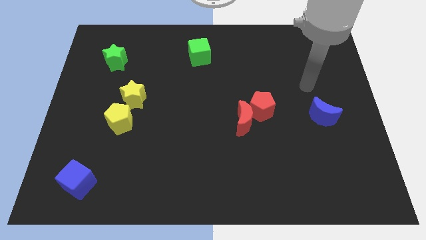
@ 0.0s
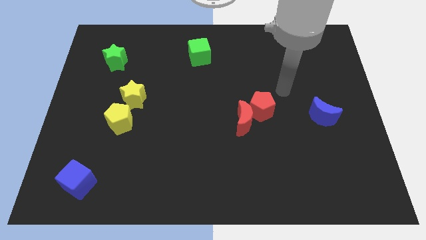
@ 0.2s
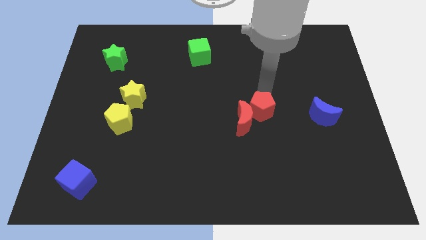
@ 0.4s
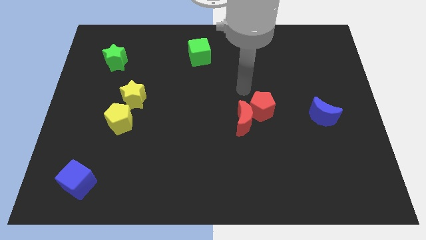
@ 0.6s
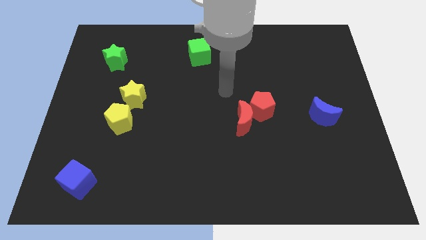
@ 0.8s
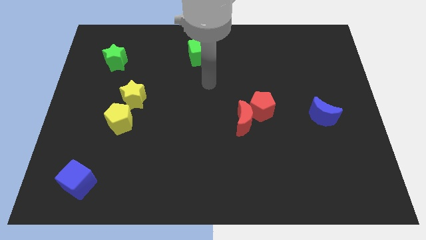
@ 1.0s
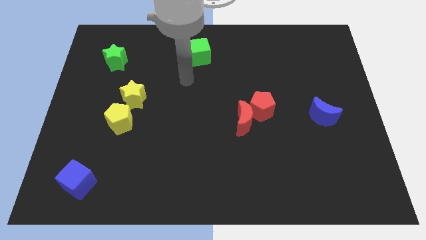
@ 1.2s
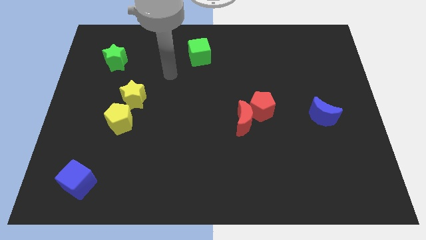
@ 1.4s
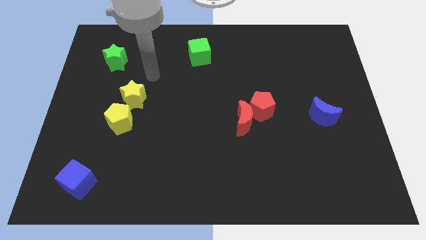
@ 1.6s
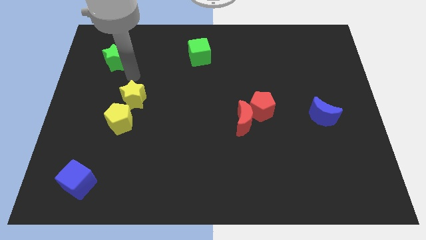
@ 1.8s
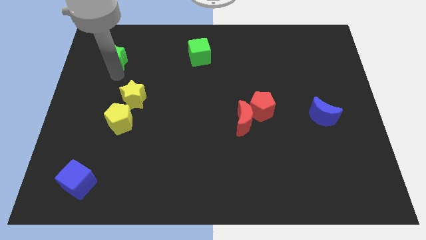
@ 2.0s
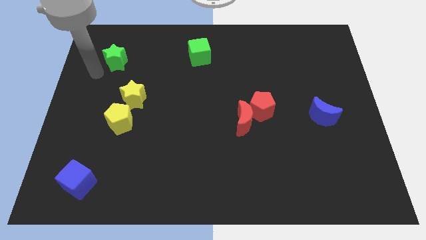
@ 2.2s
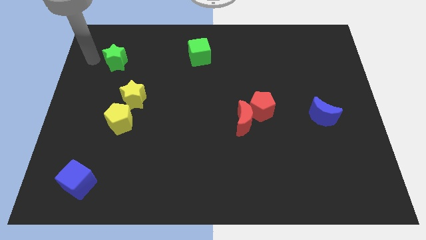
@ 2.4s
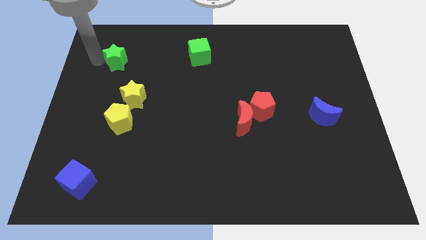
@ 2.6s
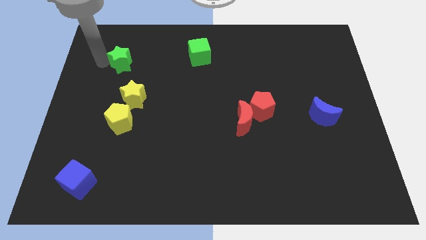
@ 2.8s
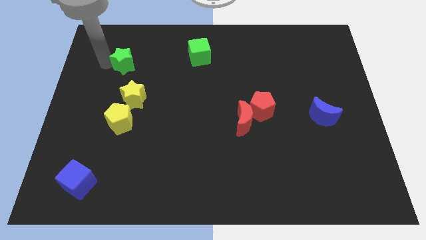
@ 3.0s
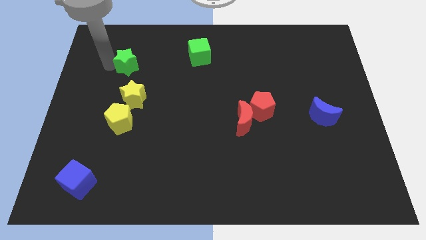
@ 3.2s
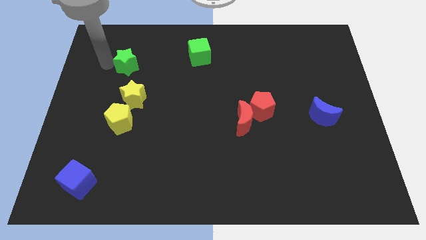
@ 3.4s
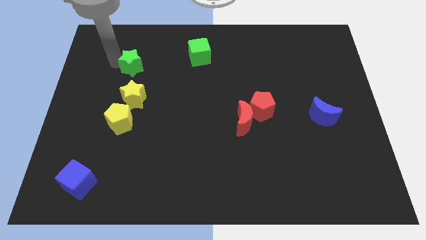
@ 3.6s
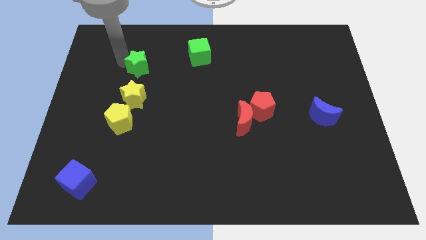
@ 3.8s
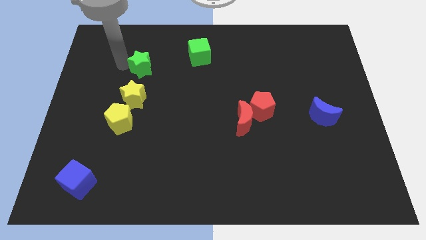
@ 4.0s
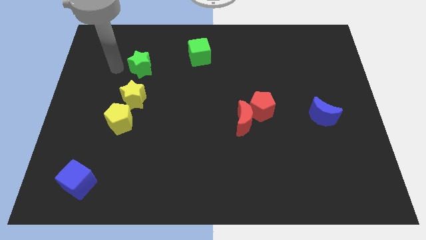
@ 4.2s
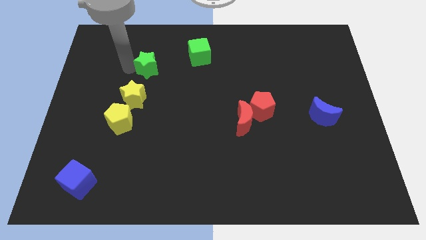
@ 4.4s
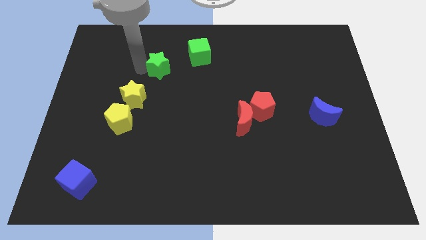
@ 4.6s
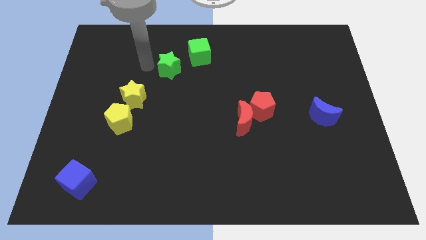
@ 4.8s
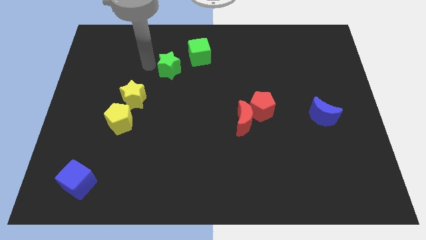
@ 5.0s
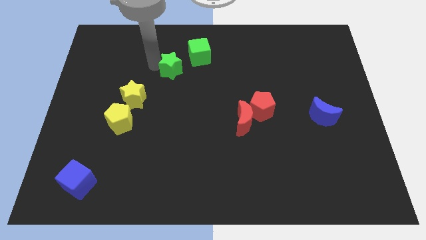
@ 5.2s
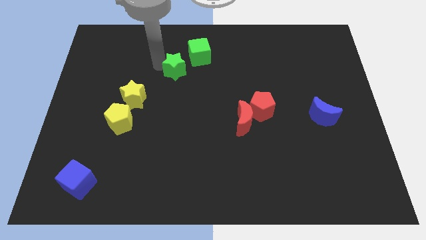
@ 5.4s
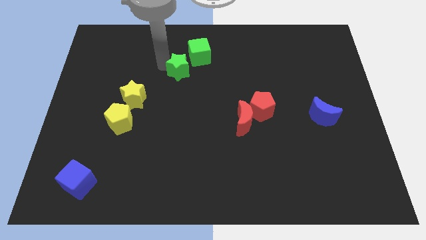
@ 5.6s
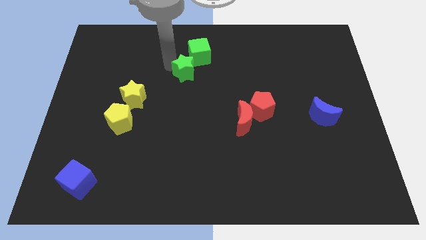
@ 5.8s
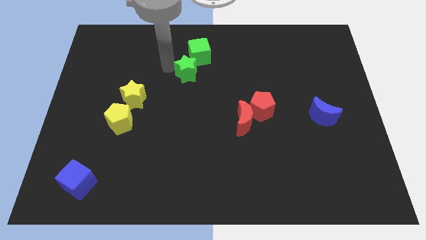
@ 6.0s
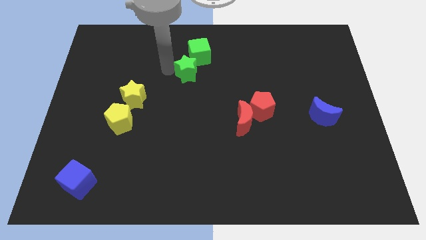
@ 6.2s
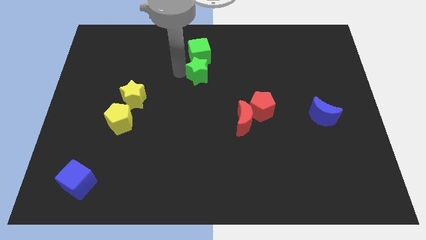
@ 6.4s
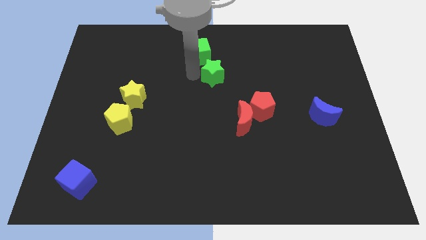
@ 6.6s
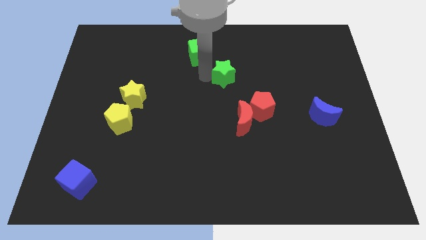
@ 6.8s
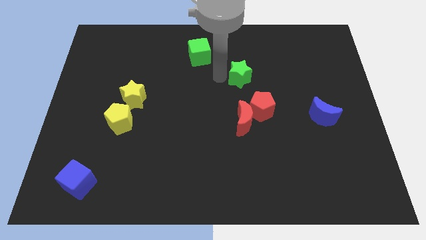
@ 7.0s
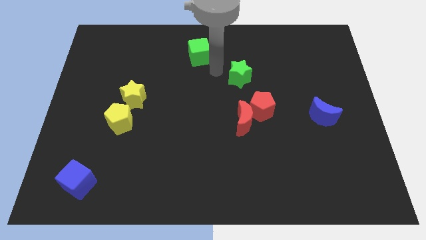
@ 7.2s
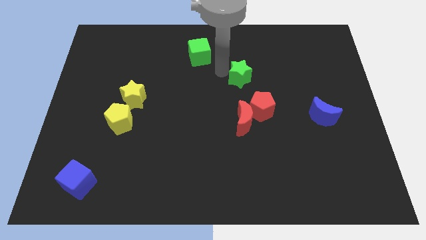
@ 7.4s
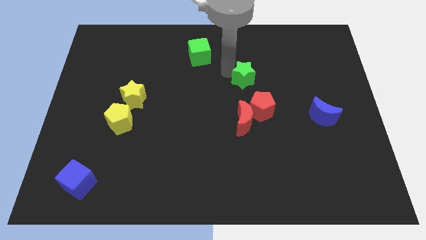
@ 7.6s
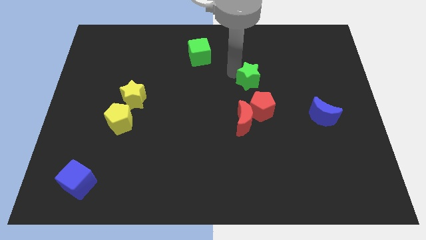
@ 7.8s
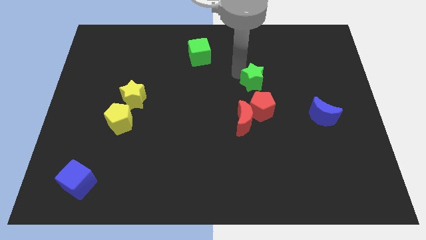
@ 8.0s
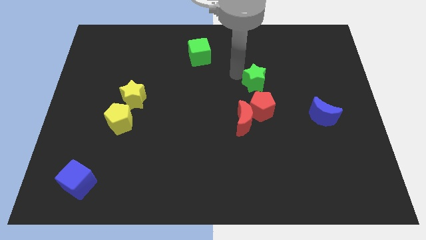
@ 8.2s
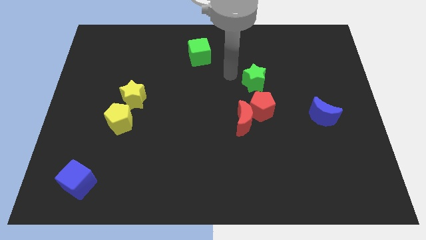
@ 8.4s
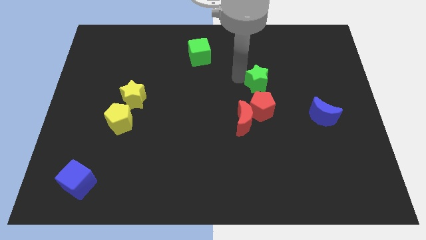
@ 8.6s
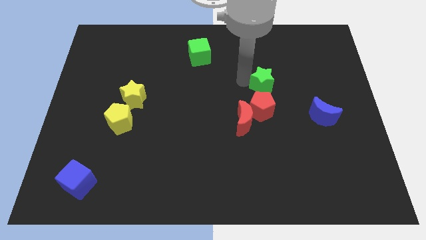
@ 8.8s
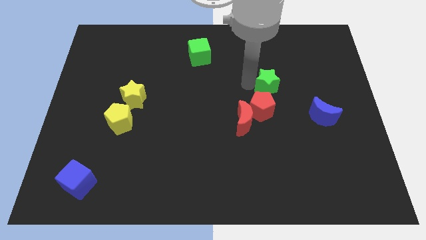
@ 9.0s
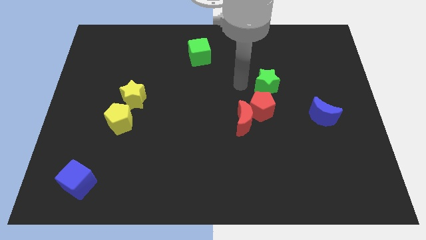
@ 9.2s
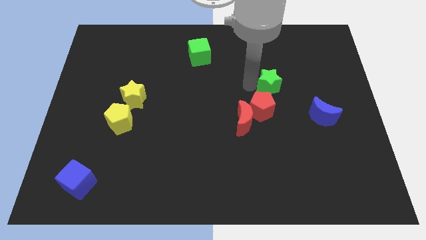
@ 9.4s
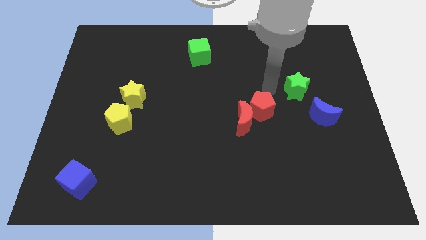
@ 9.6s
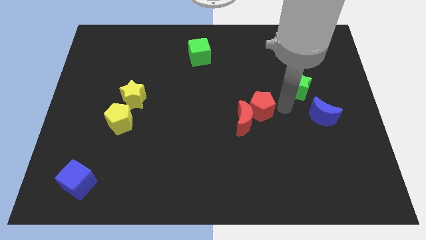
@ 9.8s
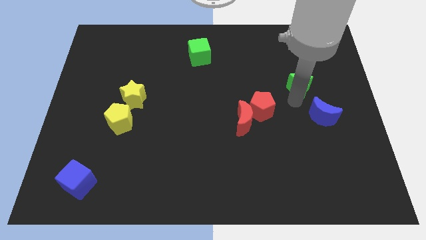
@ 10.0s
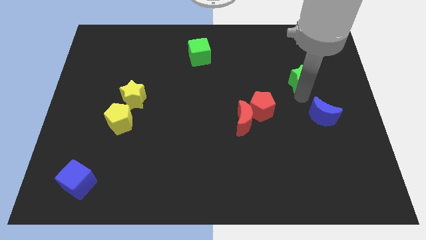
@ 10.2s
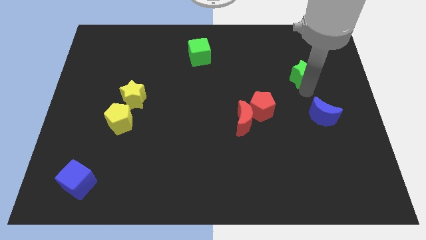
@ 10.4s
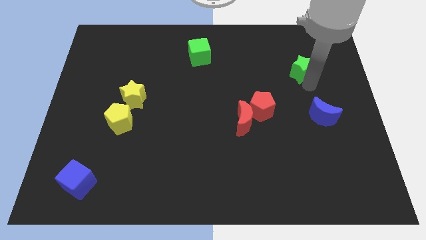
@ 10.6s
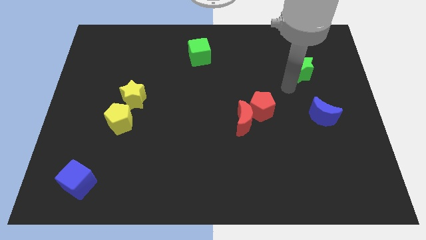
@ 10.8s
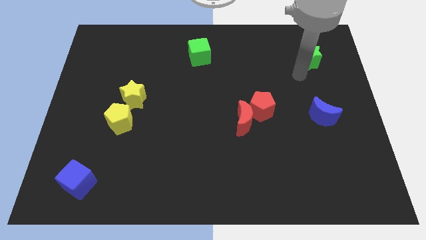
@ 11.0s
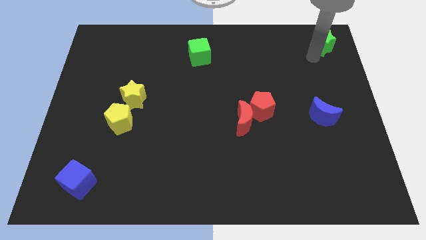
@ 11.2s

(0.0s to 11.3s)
slide the green star to the upper right corner

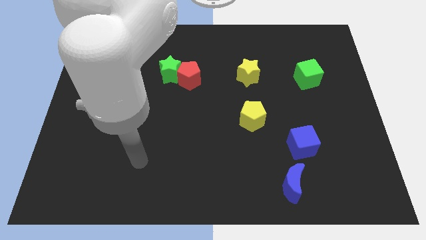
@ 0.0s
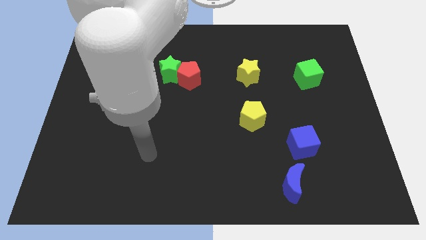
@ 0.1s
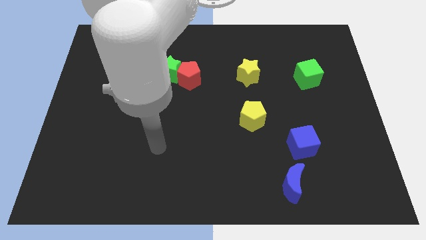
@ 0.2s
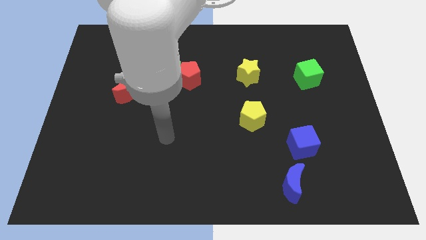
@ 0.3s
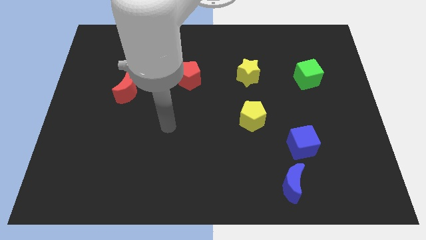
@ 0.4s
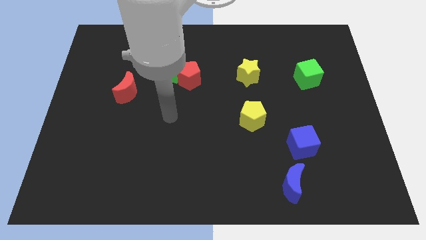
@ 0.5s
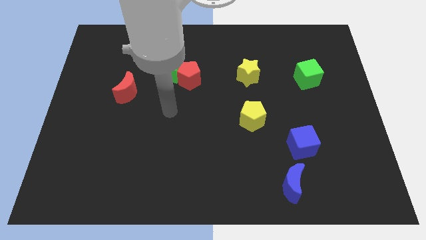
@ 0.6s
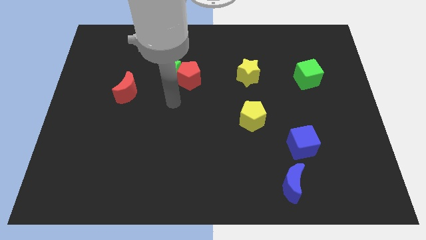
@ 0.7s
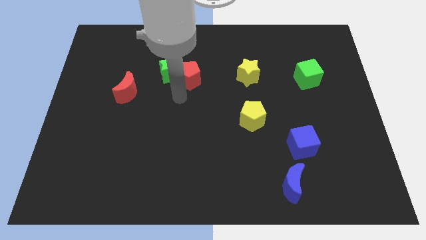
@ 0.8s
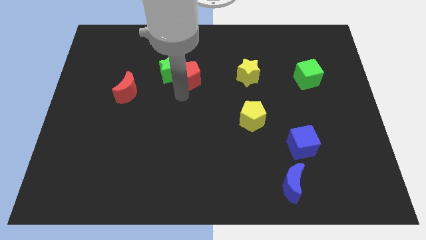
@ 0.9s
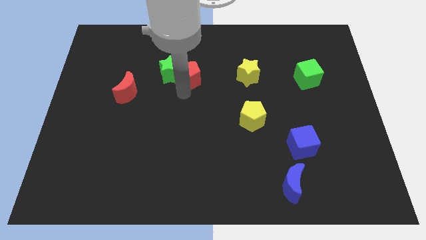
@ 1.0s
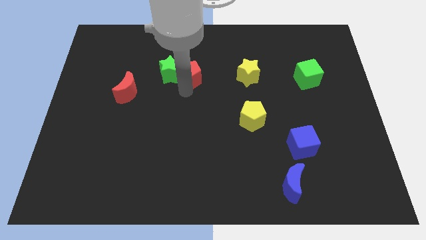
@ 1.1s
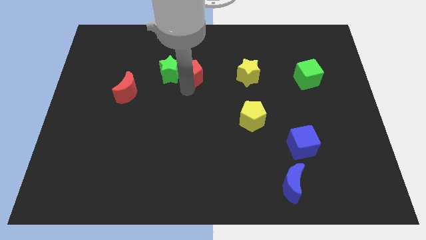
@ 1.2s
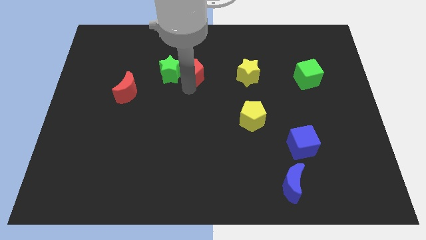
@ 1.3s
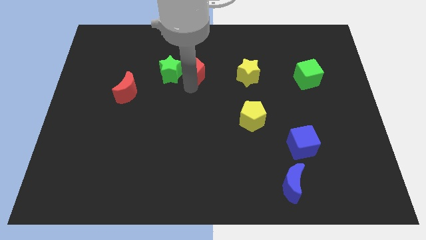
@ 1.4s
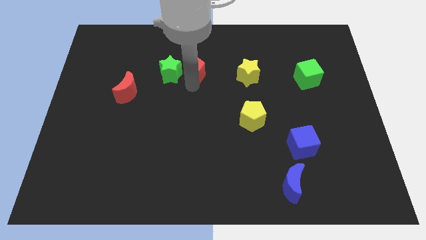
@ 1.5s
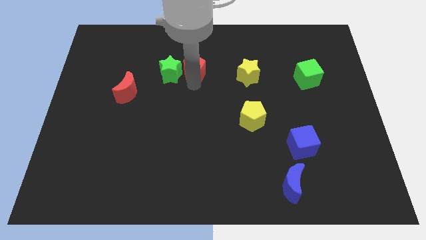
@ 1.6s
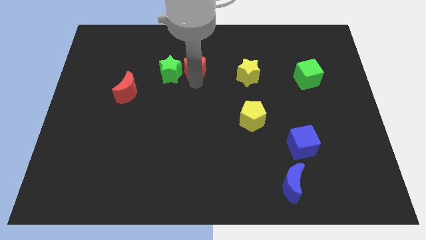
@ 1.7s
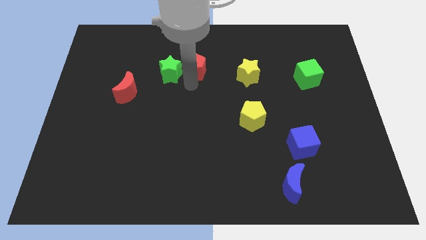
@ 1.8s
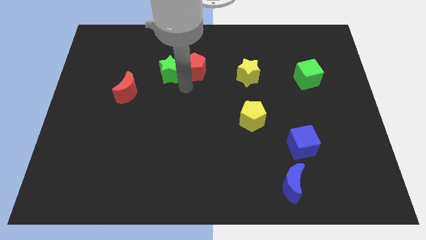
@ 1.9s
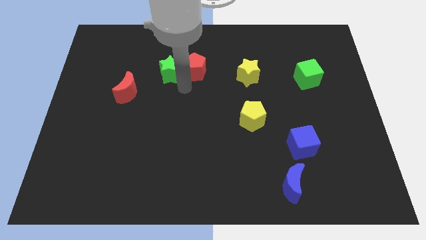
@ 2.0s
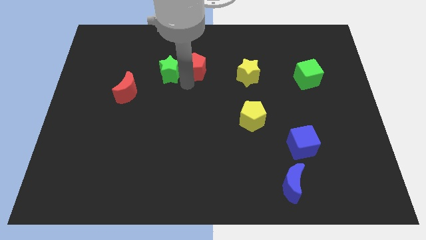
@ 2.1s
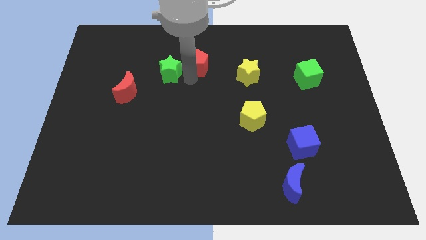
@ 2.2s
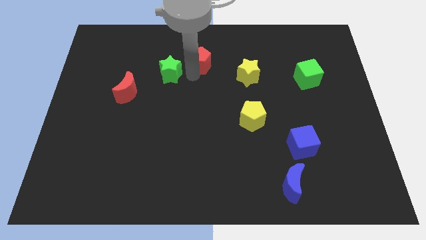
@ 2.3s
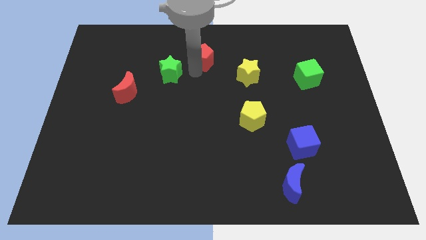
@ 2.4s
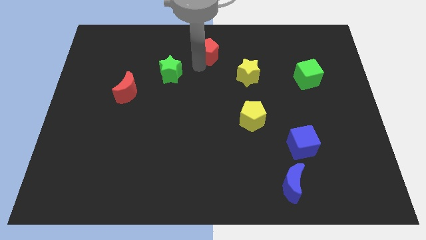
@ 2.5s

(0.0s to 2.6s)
put the red pentagon to the top side
